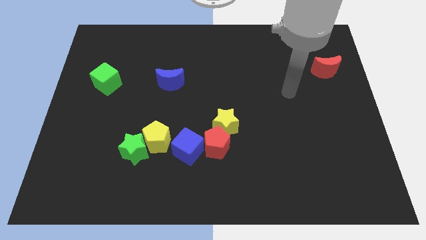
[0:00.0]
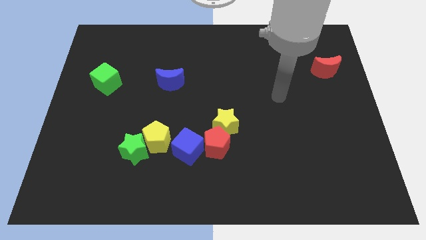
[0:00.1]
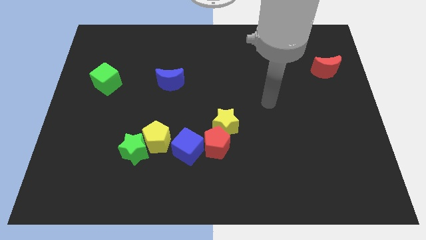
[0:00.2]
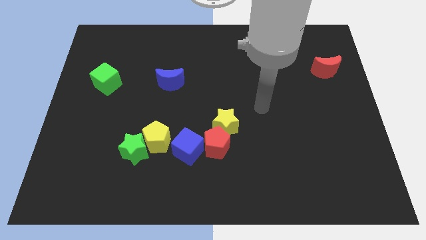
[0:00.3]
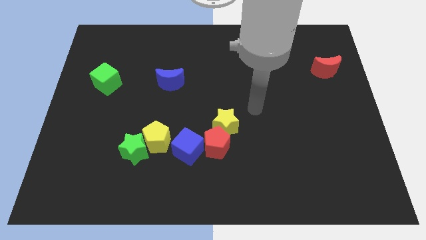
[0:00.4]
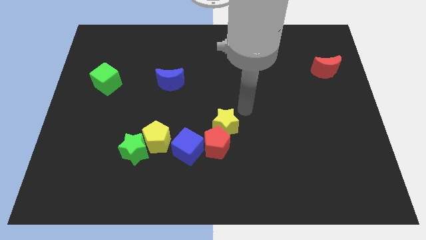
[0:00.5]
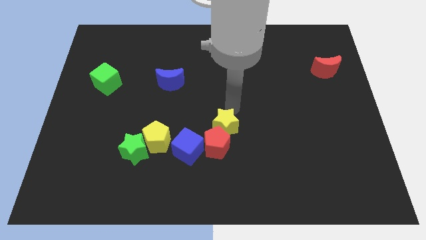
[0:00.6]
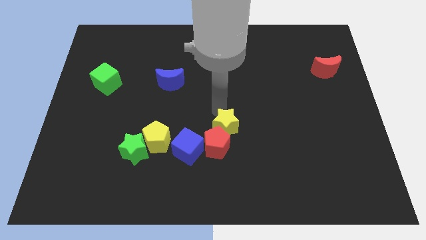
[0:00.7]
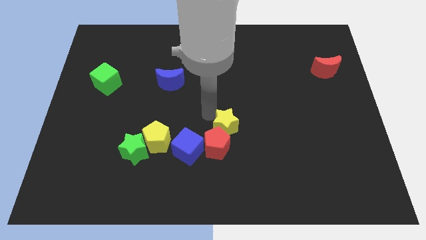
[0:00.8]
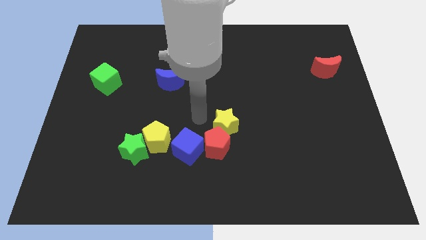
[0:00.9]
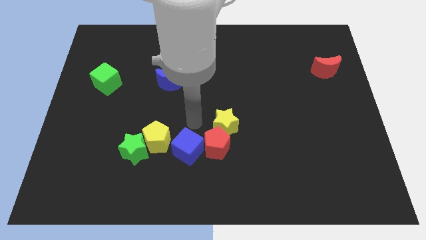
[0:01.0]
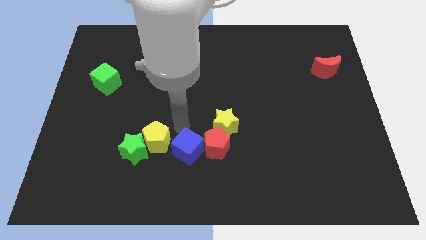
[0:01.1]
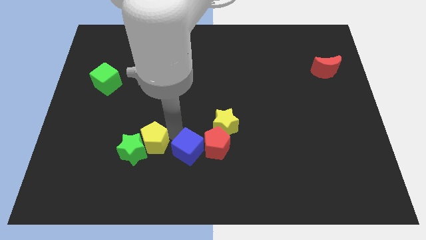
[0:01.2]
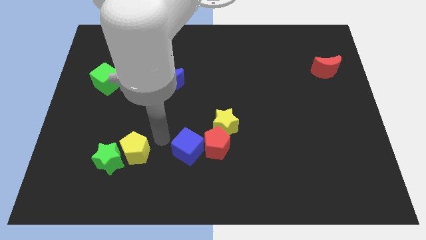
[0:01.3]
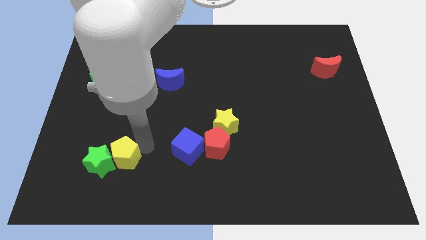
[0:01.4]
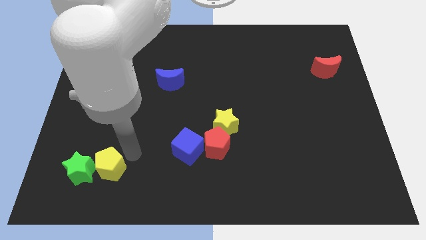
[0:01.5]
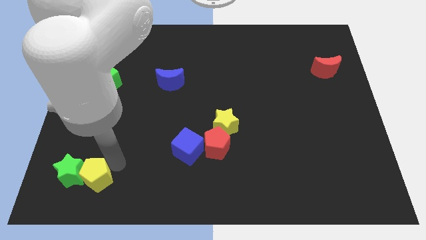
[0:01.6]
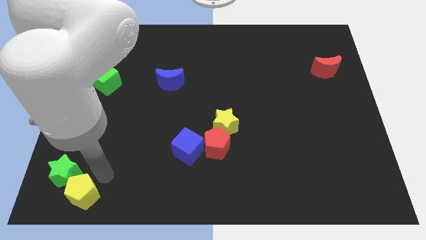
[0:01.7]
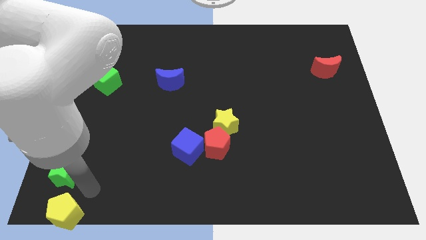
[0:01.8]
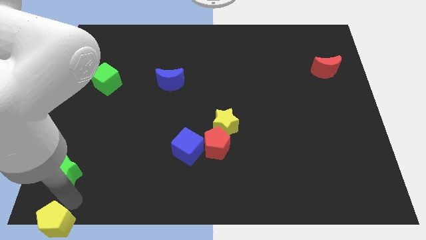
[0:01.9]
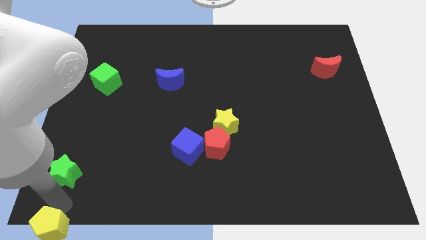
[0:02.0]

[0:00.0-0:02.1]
move the green star away from the yellow pentagon

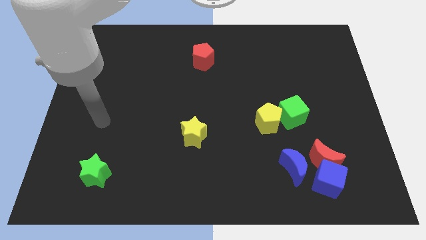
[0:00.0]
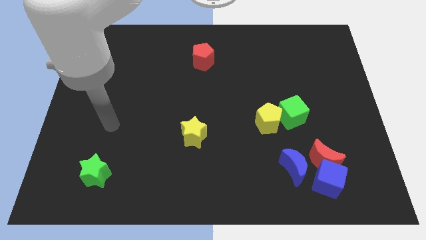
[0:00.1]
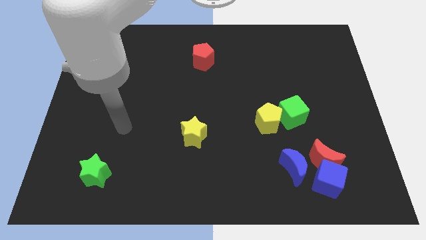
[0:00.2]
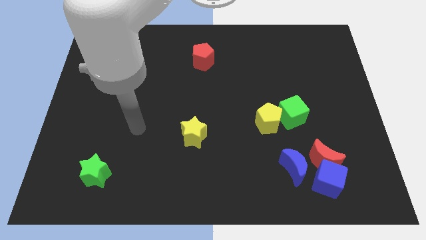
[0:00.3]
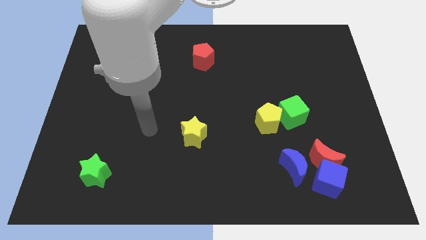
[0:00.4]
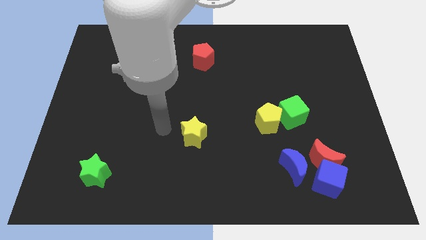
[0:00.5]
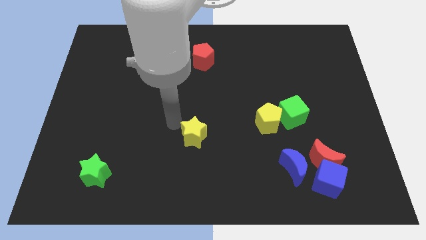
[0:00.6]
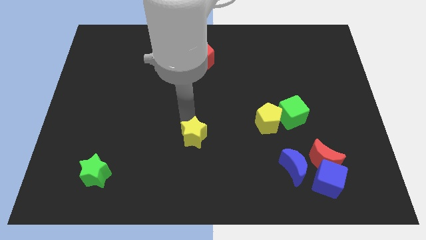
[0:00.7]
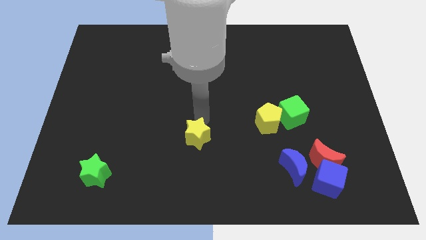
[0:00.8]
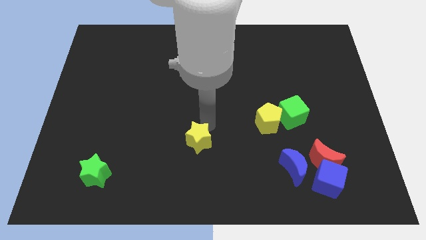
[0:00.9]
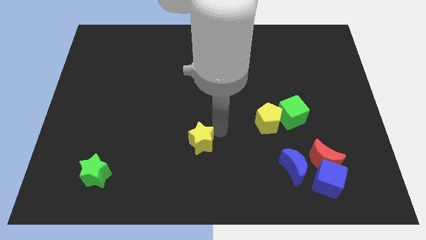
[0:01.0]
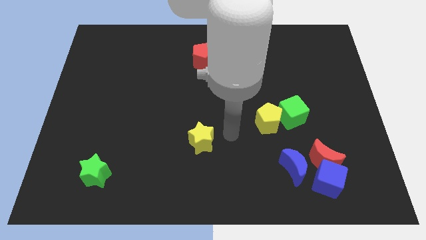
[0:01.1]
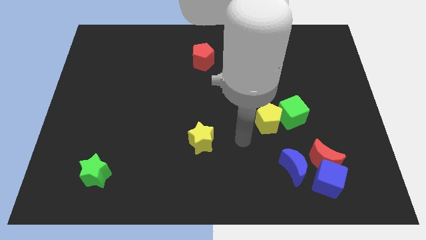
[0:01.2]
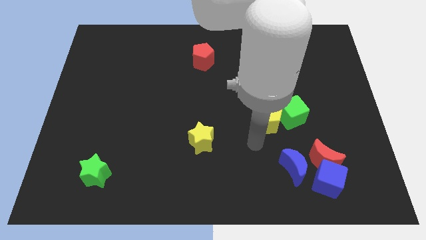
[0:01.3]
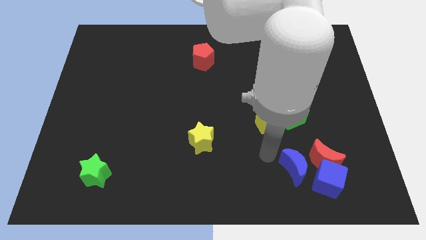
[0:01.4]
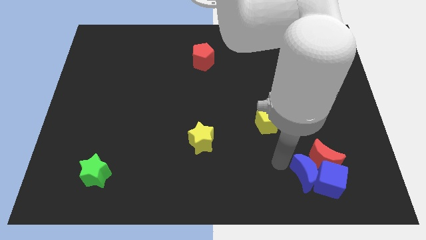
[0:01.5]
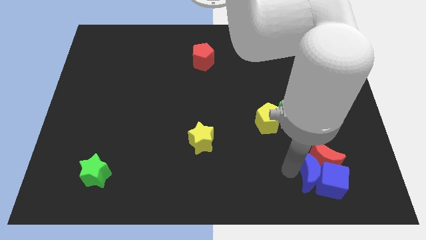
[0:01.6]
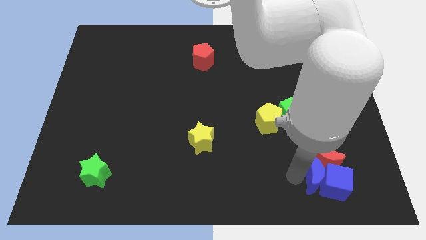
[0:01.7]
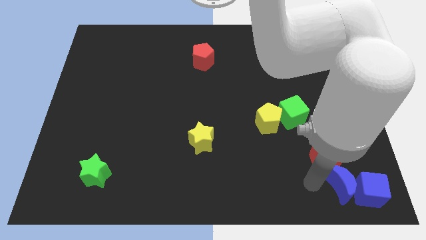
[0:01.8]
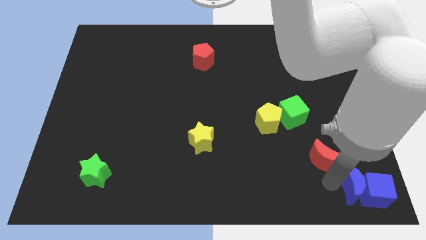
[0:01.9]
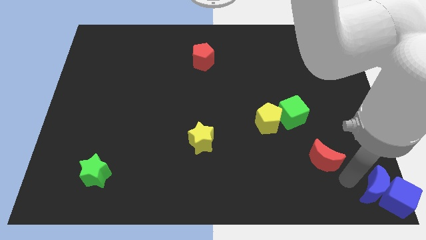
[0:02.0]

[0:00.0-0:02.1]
move the red moon away from the blue cube and blue moon

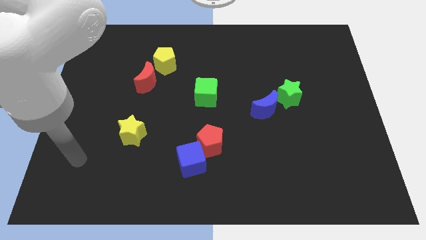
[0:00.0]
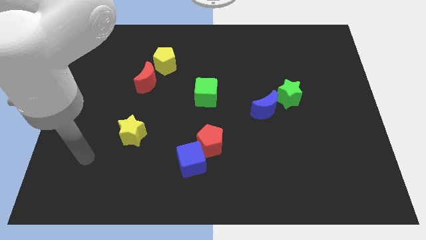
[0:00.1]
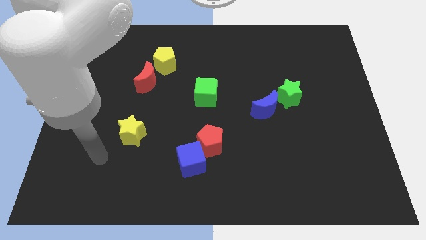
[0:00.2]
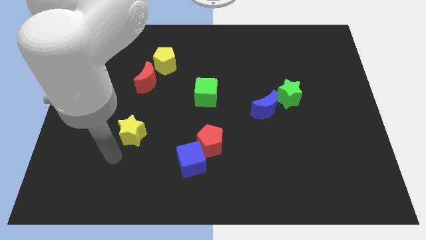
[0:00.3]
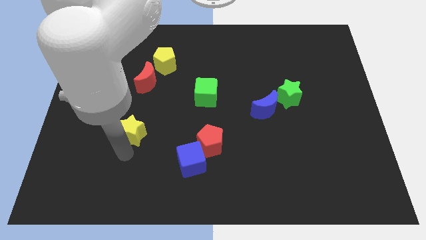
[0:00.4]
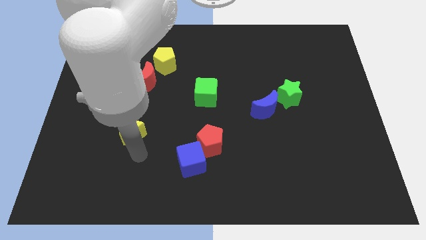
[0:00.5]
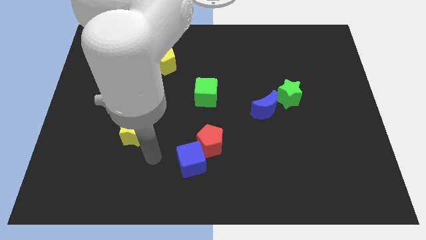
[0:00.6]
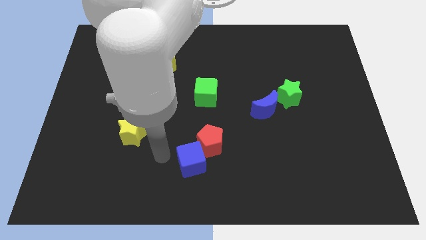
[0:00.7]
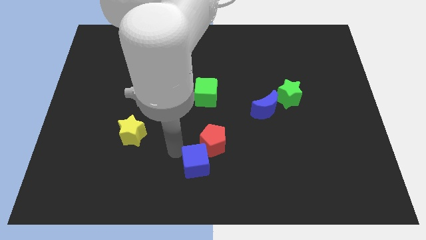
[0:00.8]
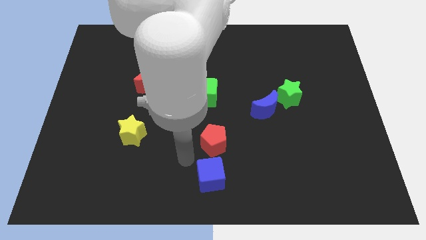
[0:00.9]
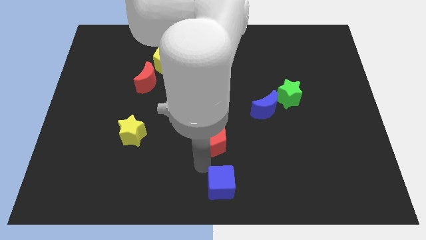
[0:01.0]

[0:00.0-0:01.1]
move the red pentagon away from the blue cube

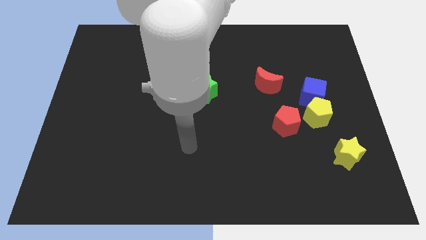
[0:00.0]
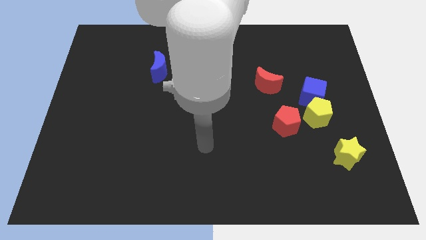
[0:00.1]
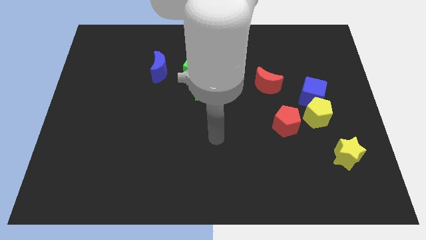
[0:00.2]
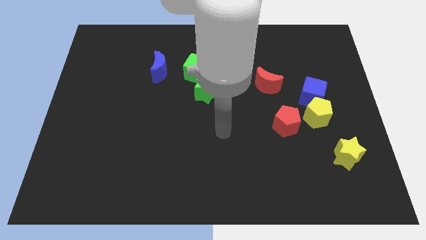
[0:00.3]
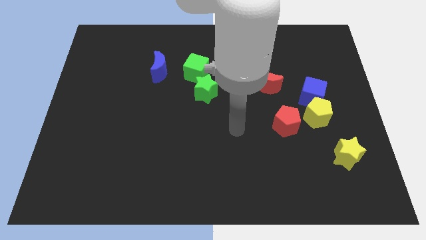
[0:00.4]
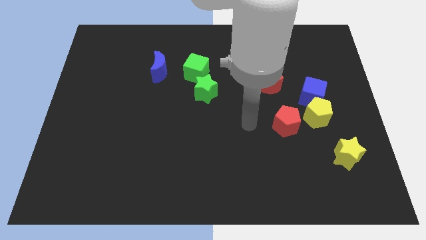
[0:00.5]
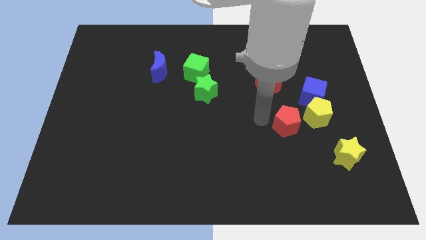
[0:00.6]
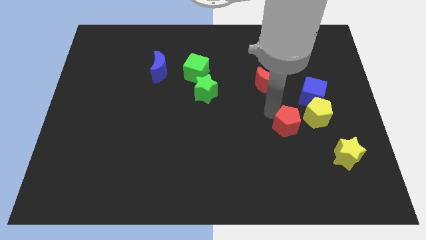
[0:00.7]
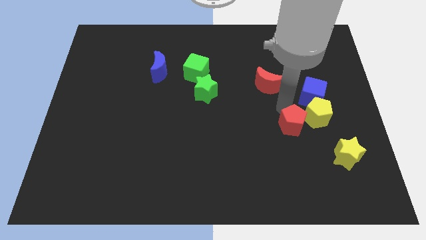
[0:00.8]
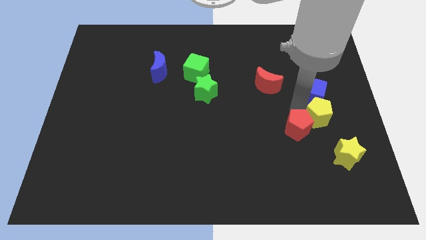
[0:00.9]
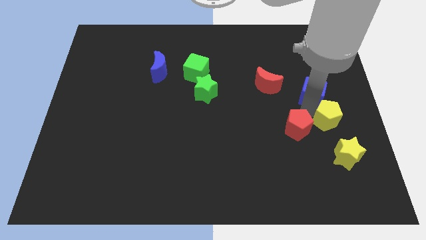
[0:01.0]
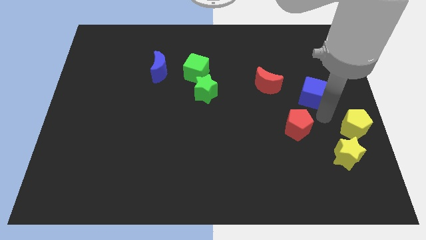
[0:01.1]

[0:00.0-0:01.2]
pull the blue cube apart from the yellow pentagon

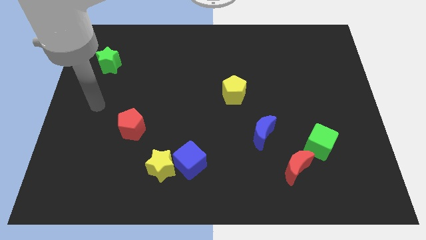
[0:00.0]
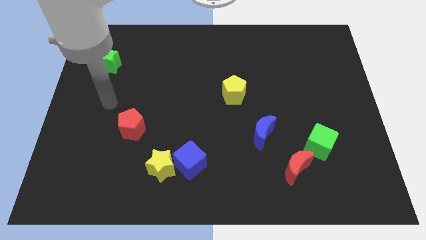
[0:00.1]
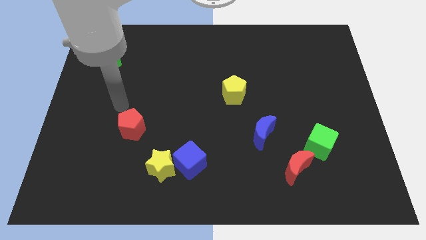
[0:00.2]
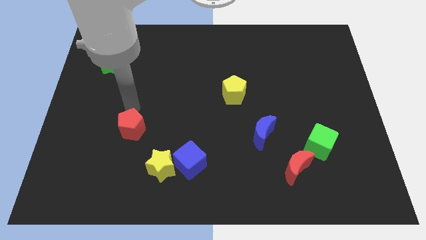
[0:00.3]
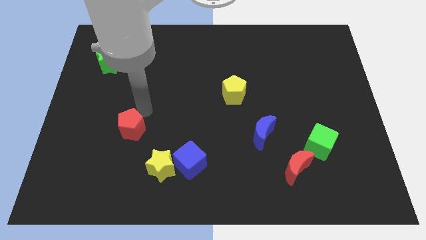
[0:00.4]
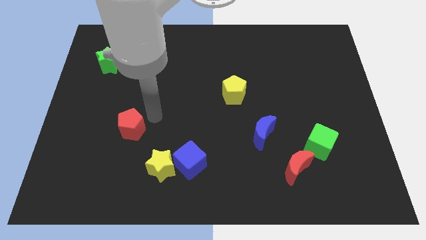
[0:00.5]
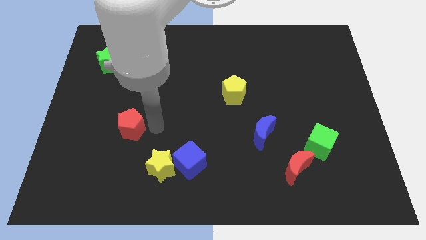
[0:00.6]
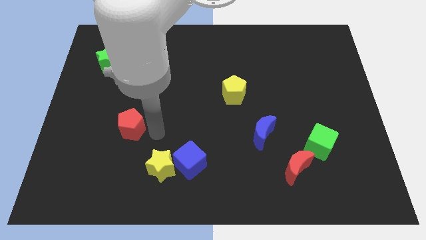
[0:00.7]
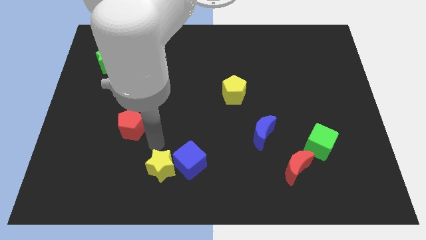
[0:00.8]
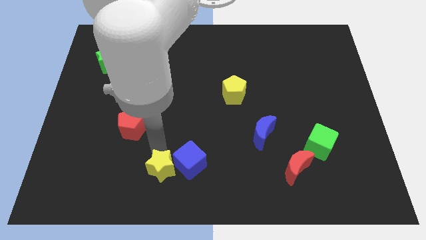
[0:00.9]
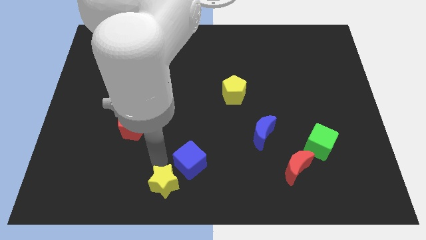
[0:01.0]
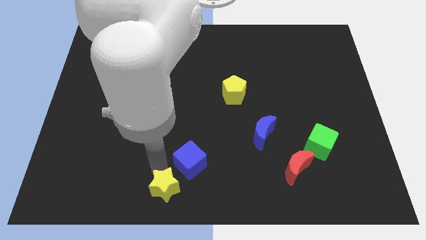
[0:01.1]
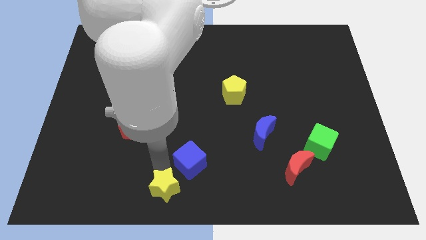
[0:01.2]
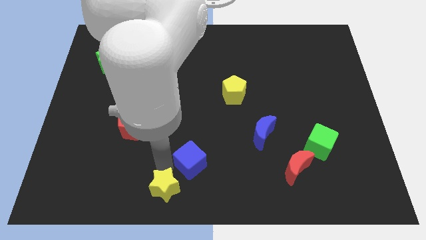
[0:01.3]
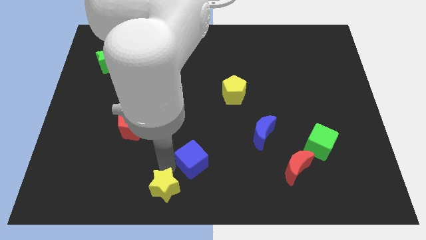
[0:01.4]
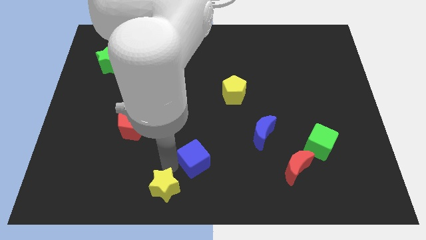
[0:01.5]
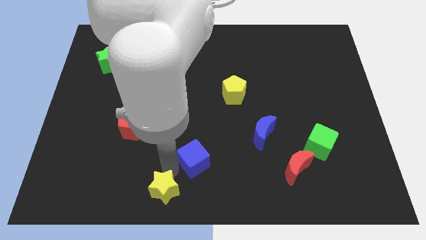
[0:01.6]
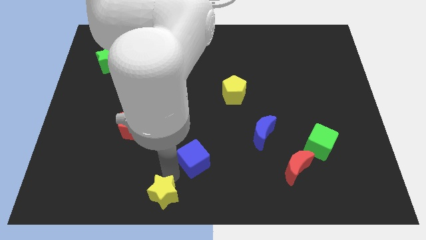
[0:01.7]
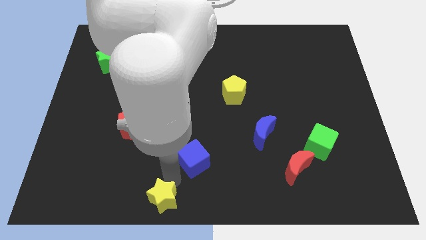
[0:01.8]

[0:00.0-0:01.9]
pull the blue cube apart from the yellow star

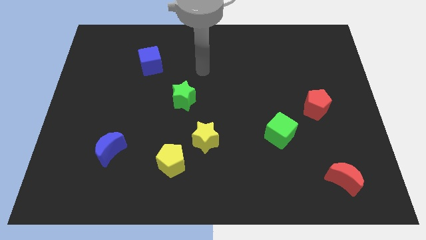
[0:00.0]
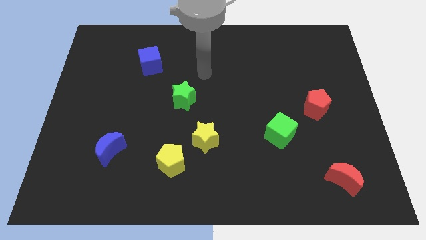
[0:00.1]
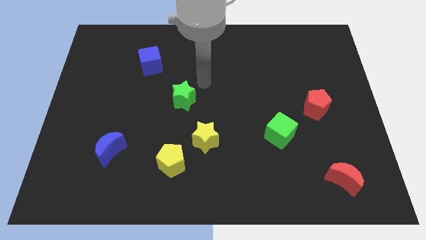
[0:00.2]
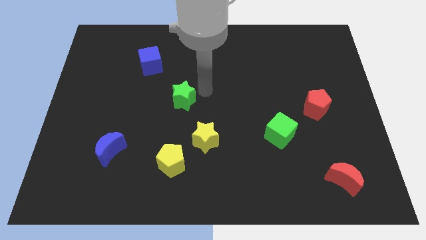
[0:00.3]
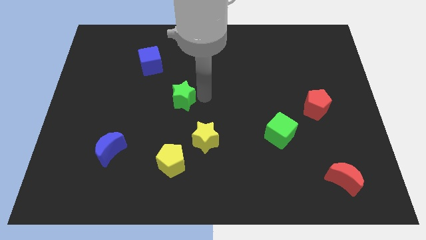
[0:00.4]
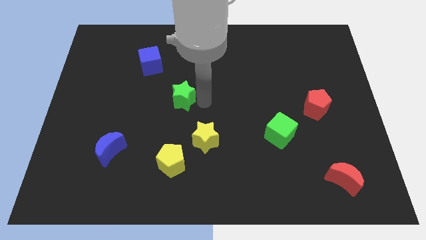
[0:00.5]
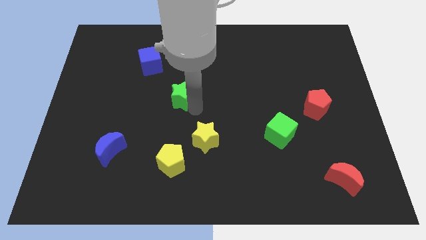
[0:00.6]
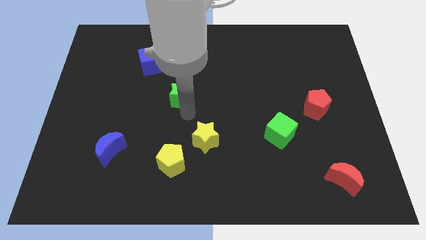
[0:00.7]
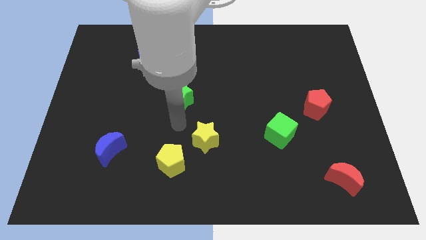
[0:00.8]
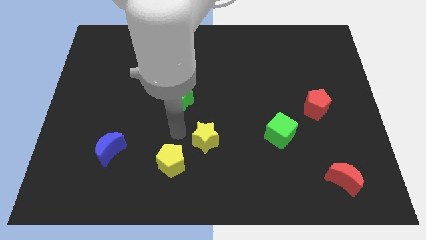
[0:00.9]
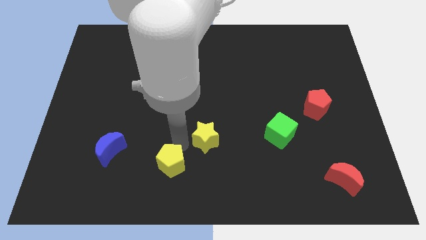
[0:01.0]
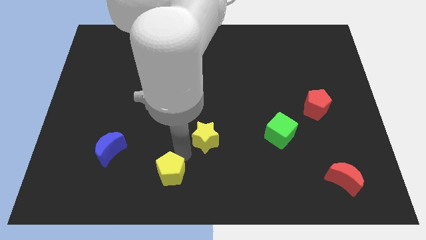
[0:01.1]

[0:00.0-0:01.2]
separate the yellow star from the yellow pentagon
